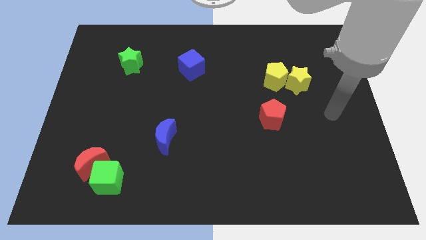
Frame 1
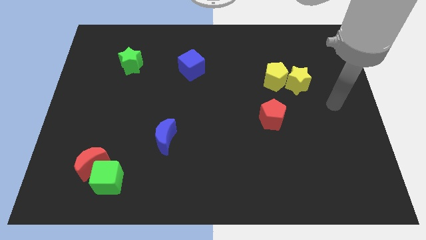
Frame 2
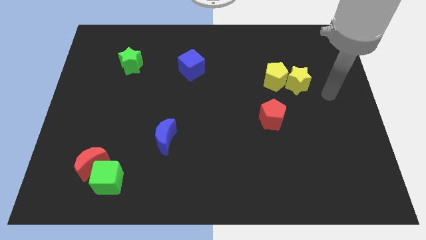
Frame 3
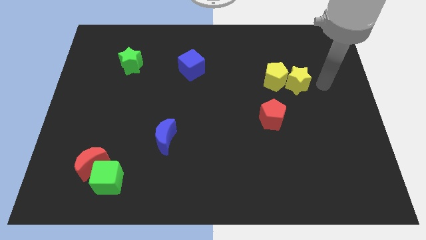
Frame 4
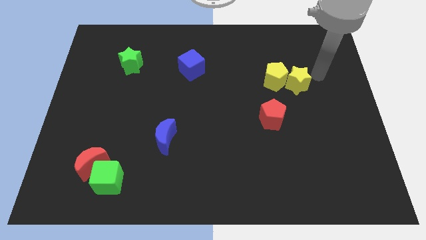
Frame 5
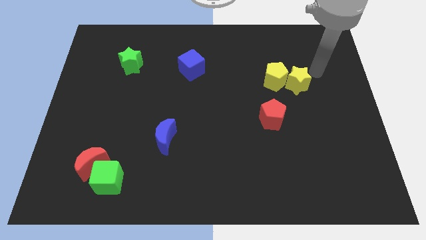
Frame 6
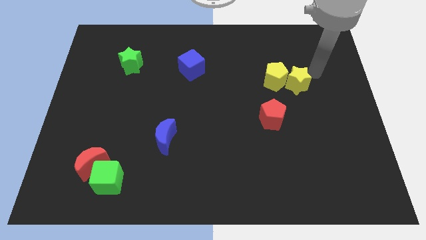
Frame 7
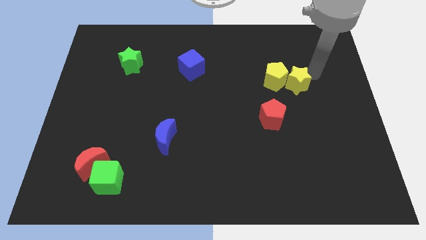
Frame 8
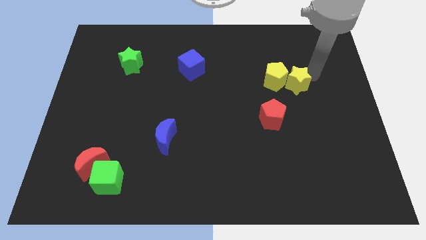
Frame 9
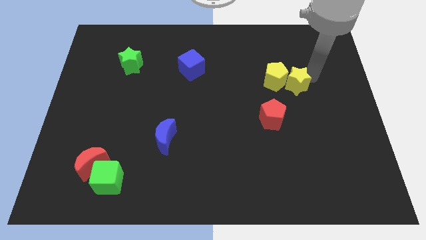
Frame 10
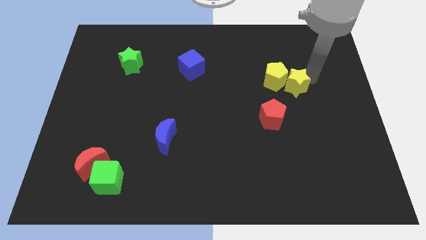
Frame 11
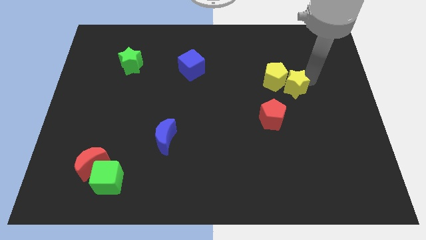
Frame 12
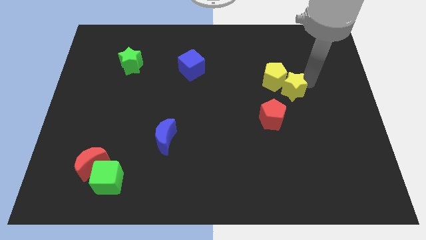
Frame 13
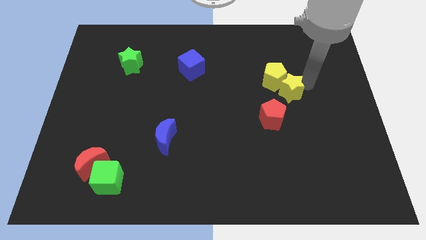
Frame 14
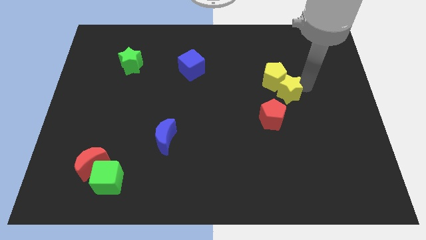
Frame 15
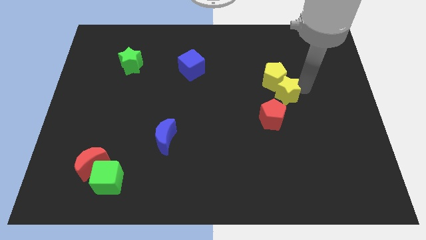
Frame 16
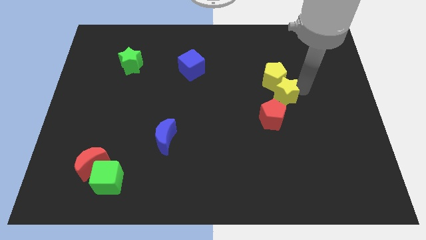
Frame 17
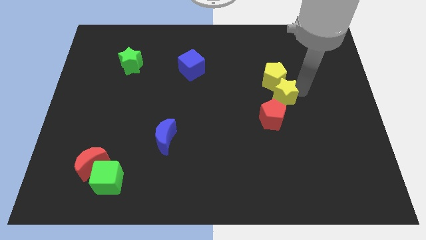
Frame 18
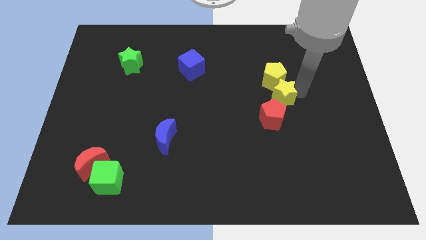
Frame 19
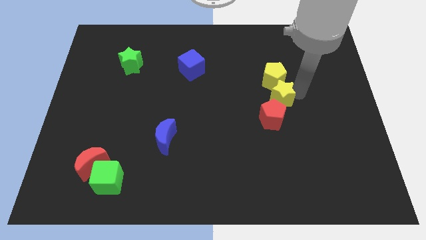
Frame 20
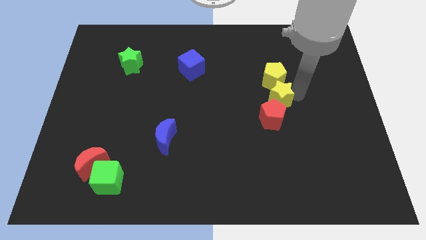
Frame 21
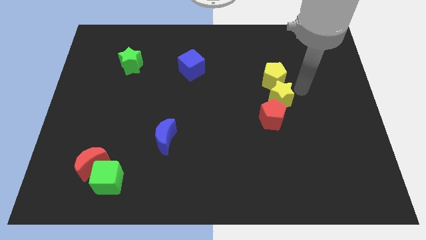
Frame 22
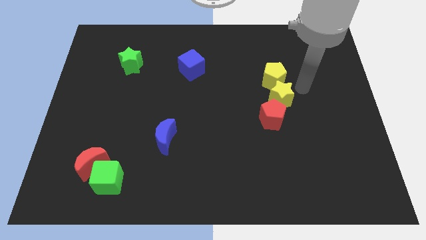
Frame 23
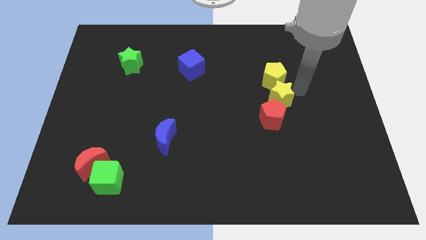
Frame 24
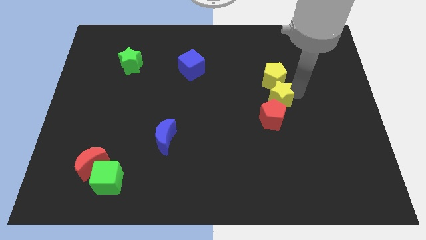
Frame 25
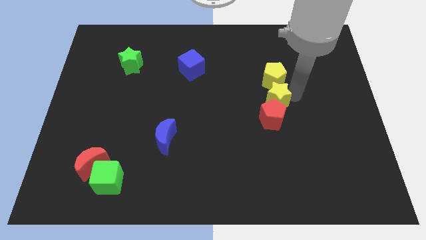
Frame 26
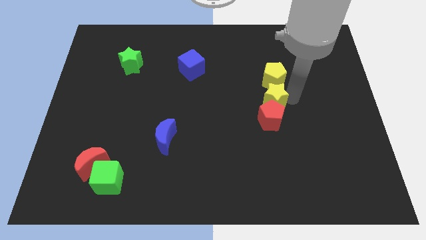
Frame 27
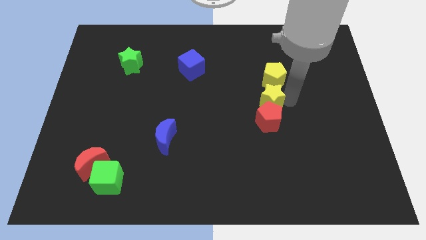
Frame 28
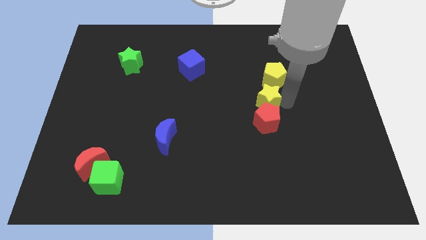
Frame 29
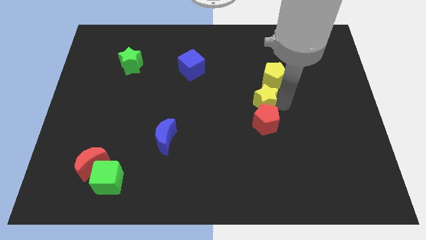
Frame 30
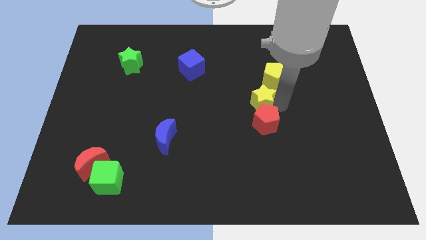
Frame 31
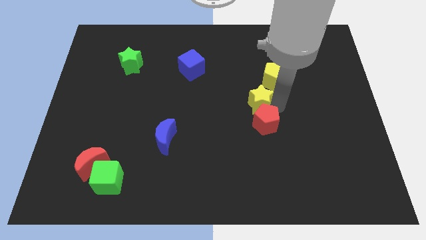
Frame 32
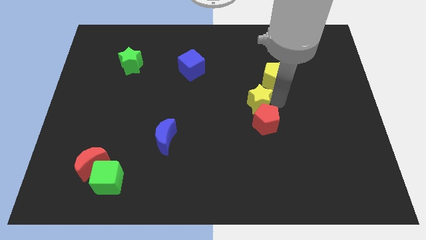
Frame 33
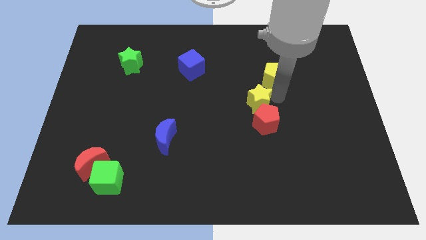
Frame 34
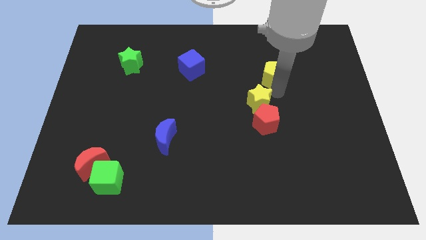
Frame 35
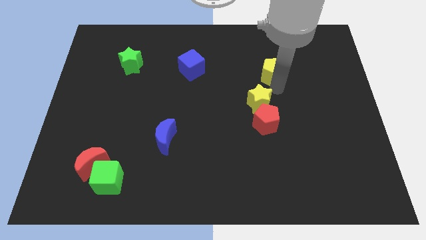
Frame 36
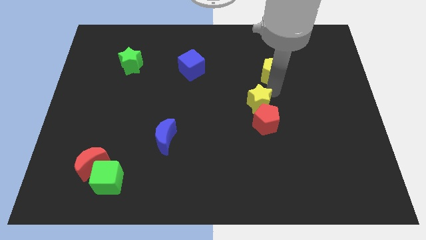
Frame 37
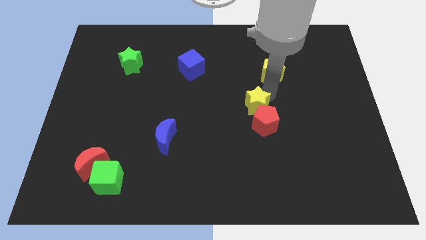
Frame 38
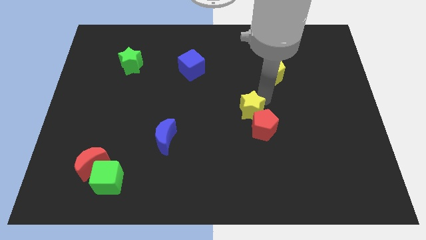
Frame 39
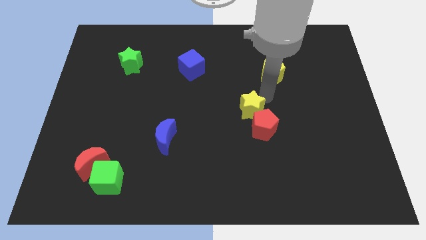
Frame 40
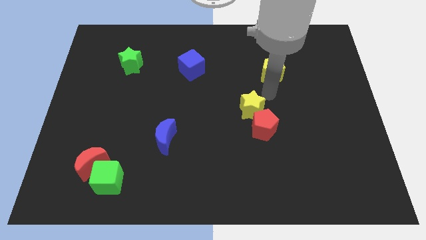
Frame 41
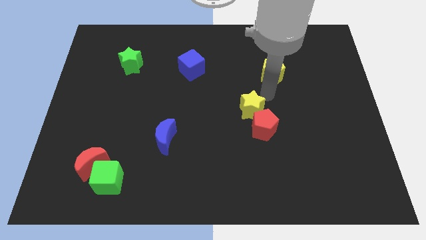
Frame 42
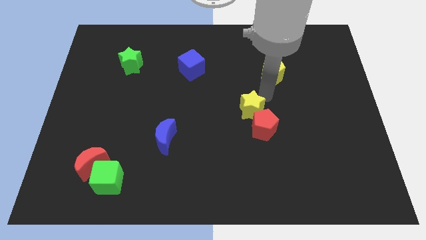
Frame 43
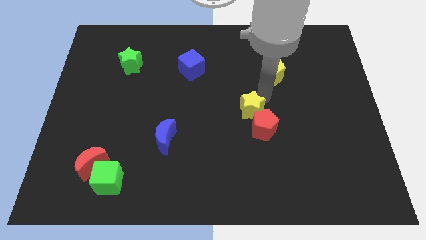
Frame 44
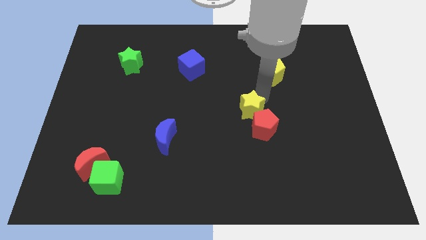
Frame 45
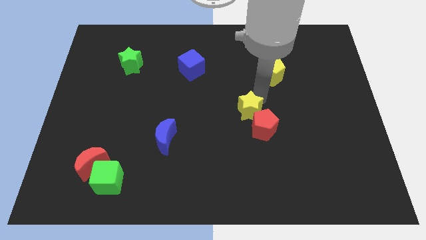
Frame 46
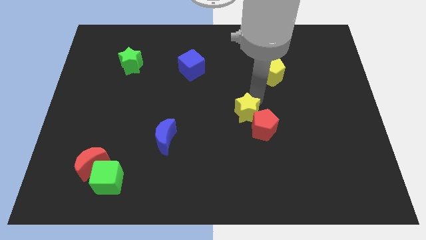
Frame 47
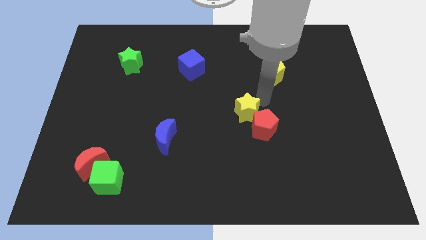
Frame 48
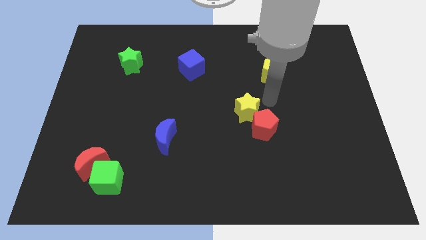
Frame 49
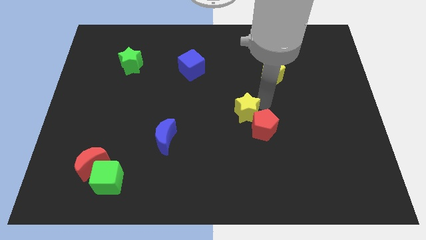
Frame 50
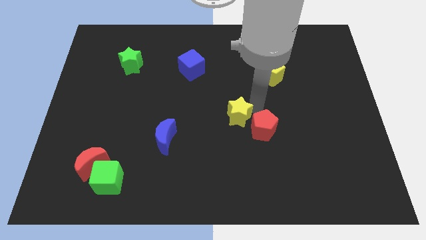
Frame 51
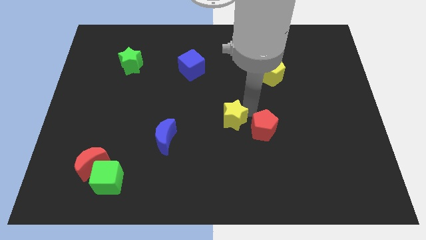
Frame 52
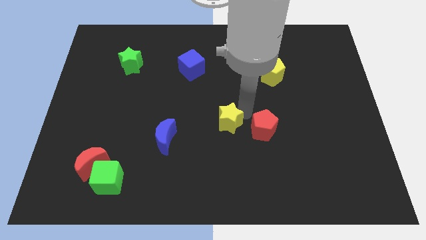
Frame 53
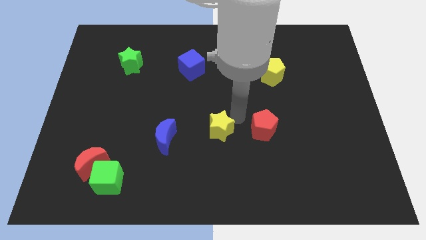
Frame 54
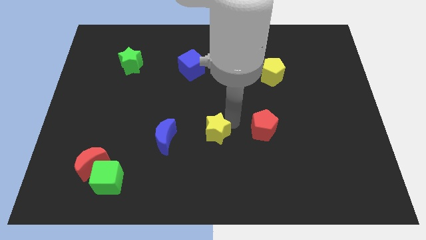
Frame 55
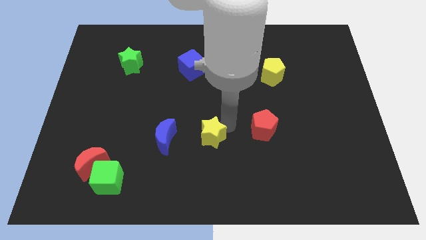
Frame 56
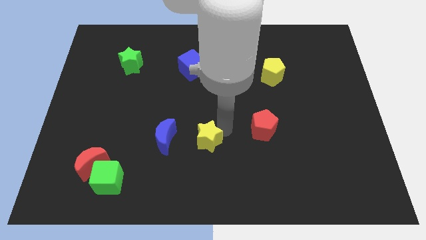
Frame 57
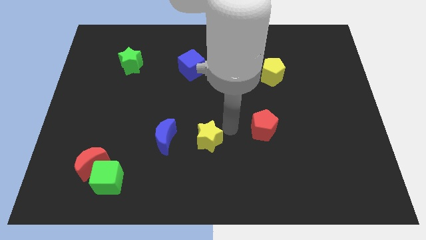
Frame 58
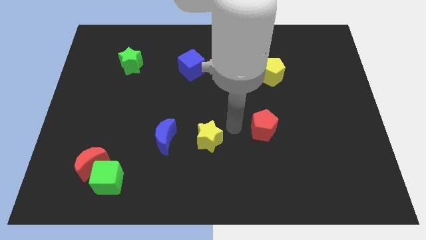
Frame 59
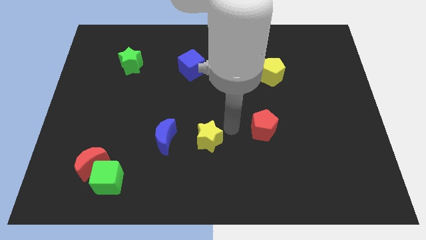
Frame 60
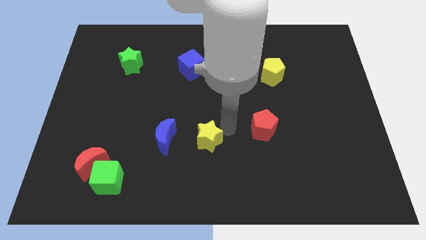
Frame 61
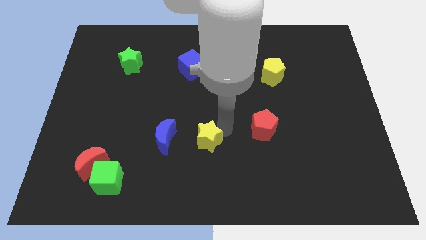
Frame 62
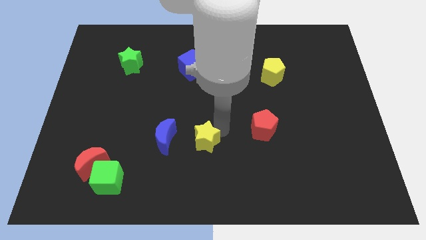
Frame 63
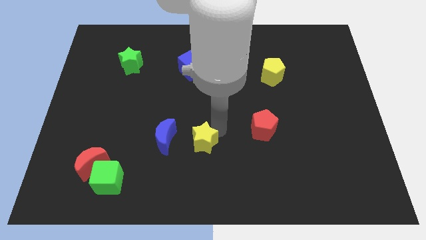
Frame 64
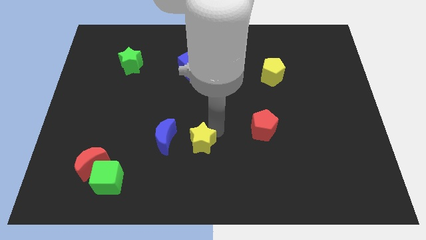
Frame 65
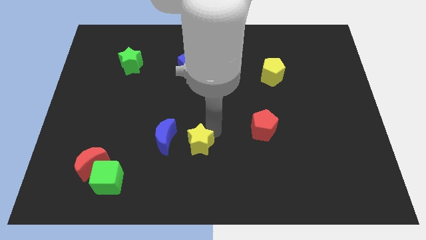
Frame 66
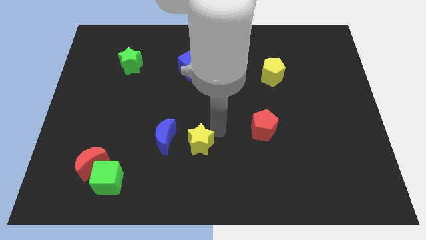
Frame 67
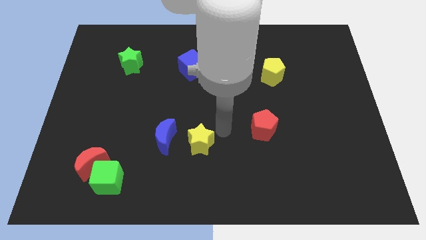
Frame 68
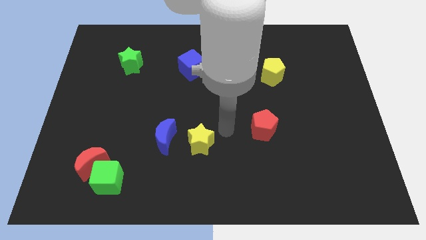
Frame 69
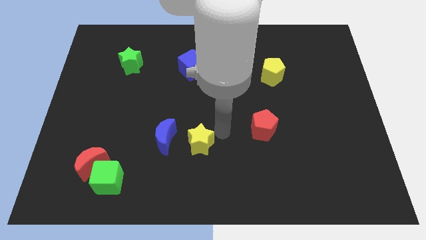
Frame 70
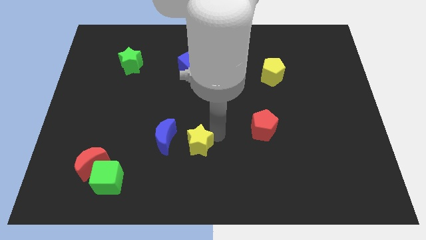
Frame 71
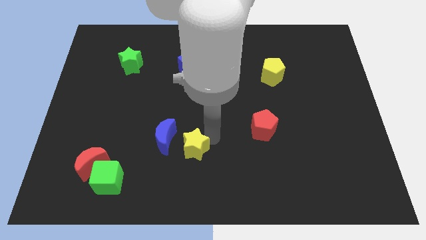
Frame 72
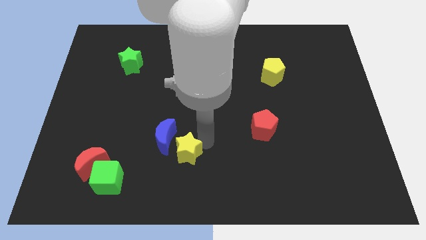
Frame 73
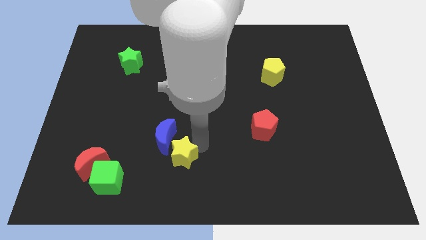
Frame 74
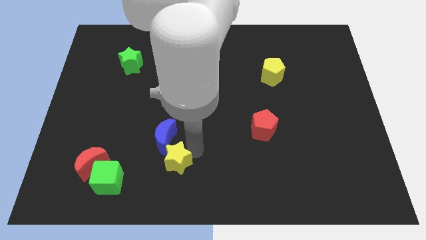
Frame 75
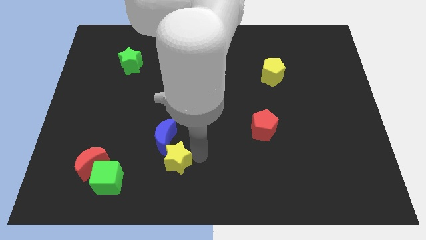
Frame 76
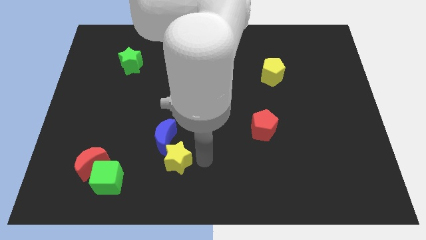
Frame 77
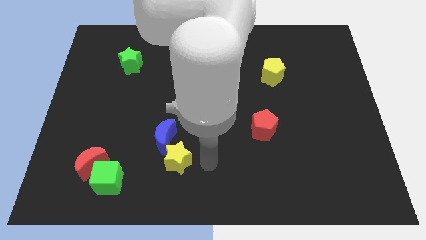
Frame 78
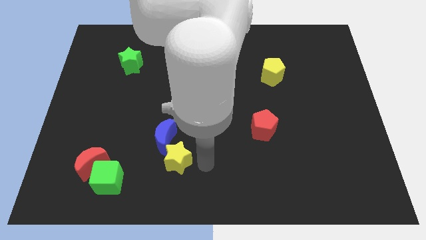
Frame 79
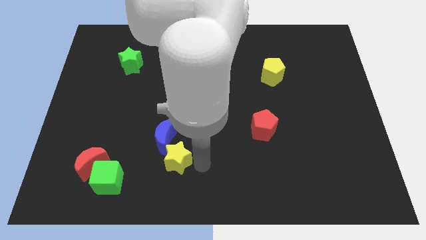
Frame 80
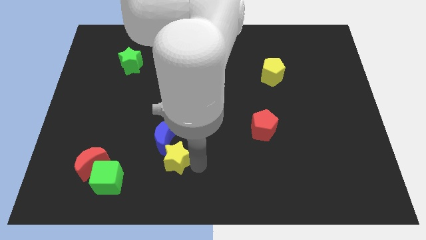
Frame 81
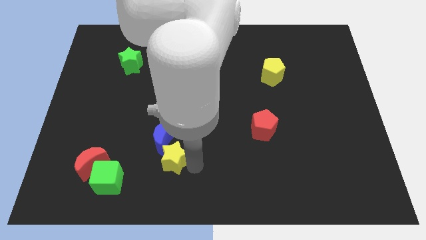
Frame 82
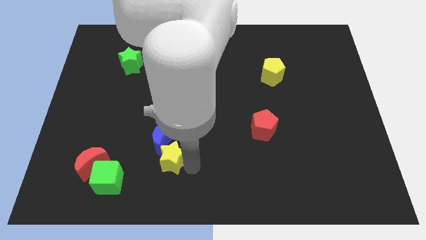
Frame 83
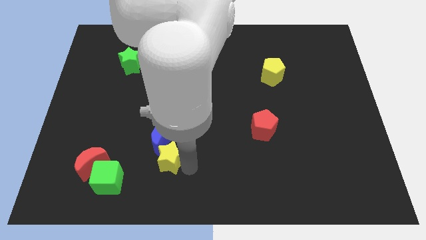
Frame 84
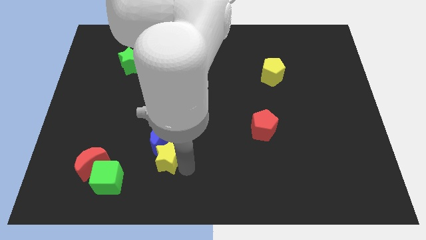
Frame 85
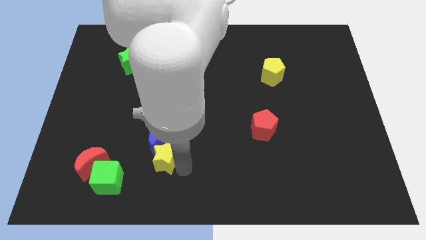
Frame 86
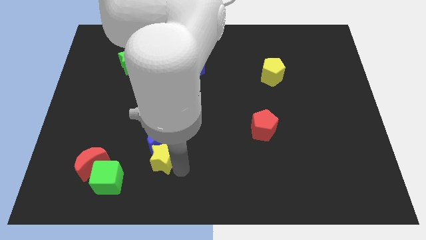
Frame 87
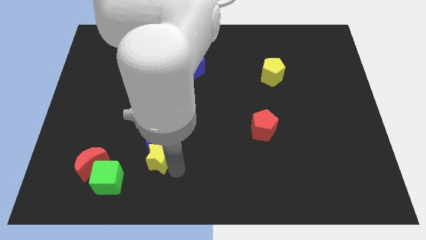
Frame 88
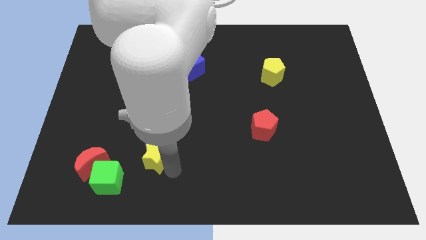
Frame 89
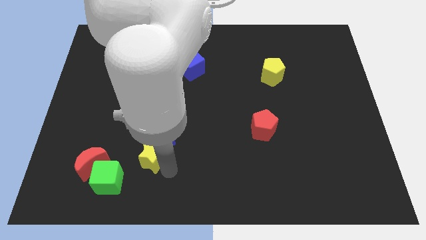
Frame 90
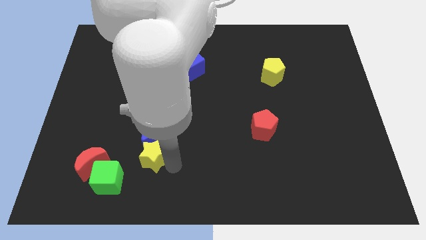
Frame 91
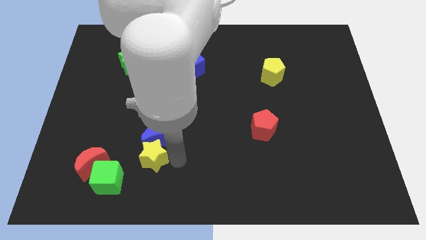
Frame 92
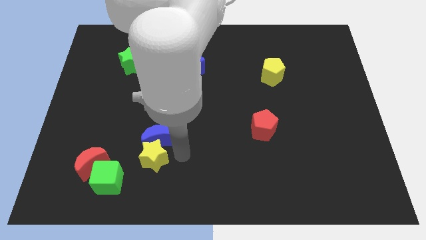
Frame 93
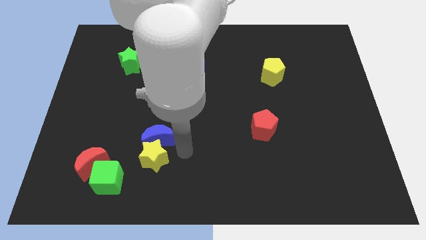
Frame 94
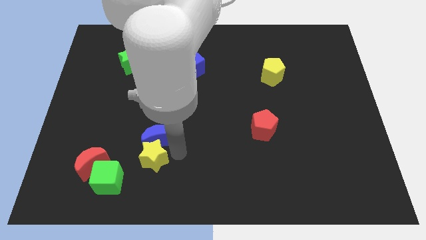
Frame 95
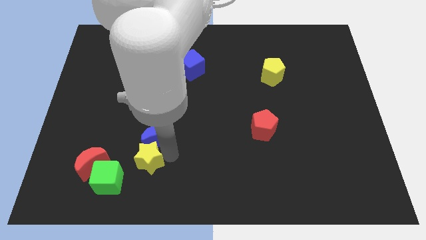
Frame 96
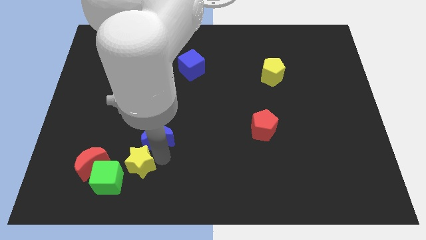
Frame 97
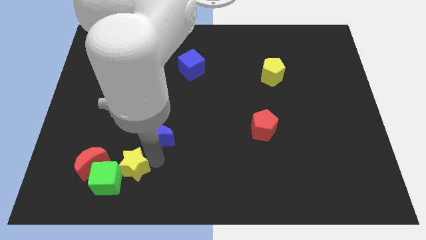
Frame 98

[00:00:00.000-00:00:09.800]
move the yellow star close to the green cube
